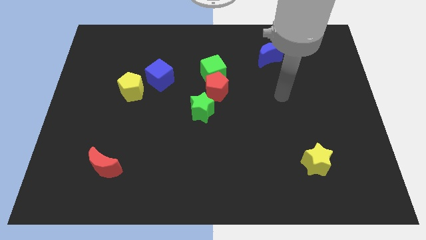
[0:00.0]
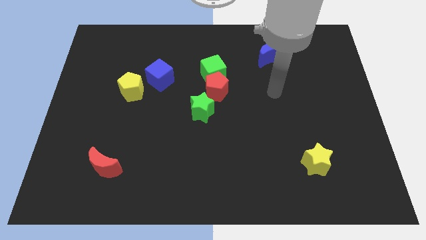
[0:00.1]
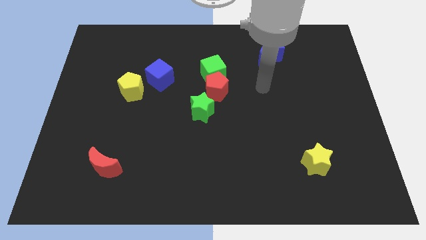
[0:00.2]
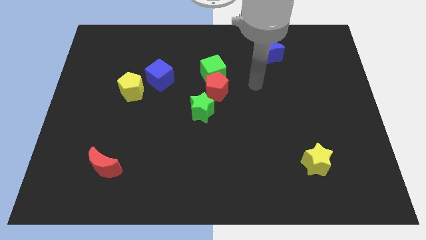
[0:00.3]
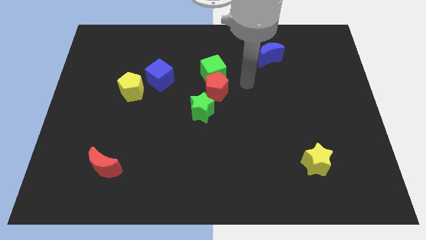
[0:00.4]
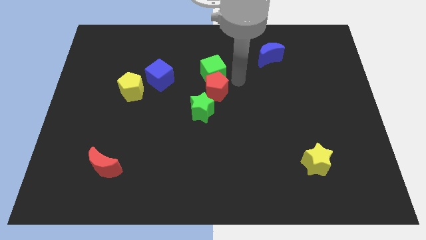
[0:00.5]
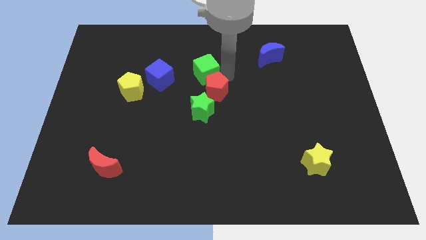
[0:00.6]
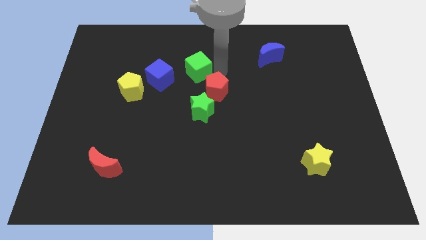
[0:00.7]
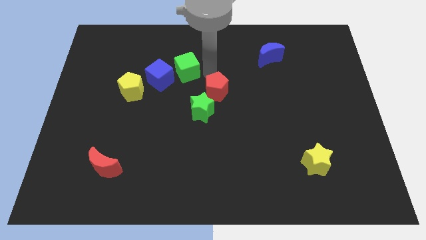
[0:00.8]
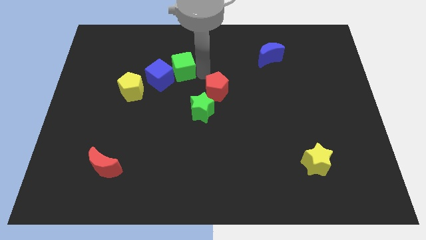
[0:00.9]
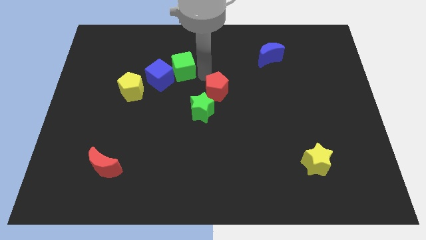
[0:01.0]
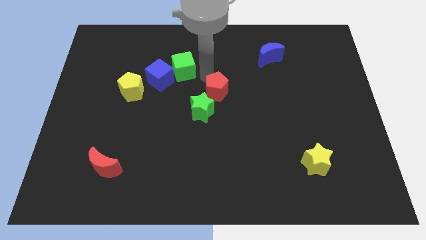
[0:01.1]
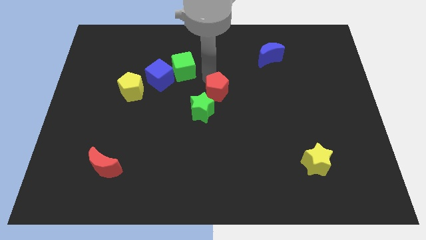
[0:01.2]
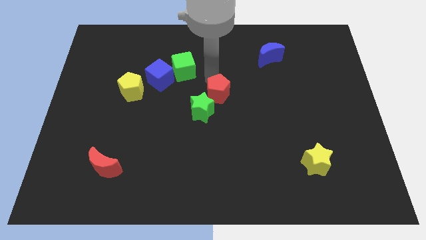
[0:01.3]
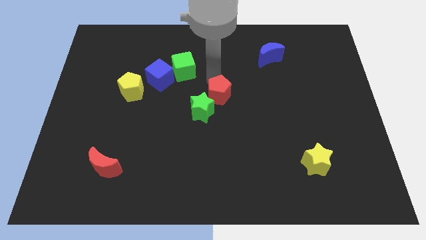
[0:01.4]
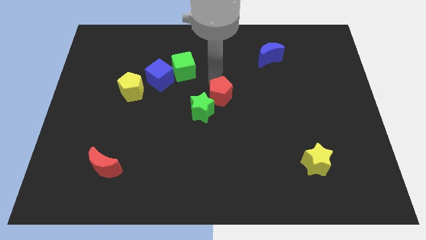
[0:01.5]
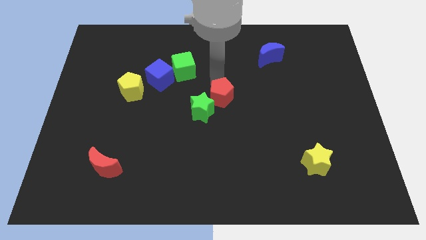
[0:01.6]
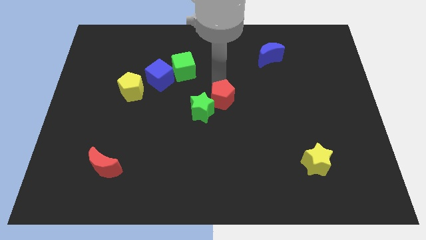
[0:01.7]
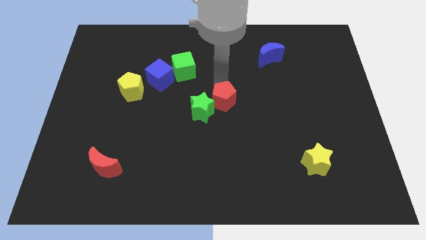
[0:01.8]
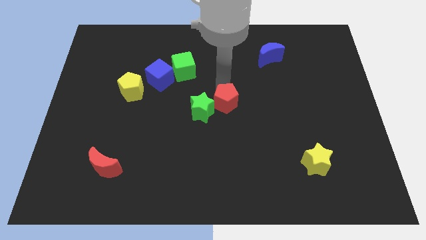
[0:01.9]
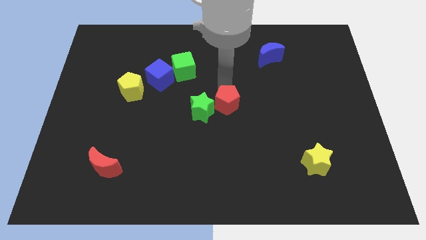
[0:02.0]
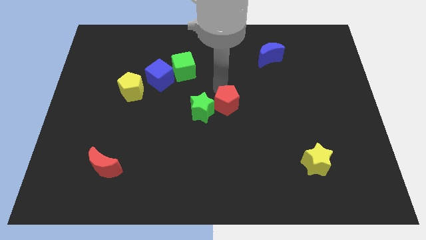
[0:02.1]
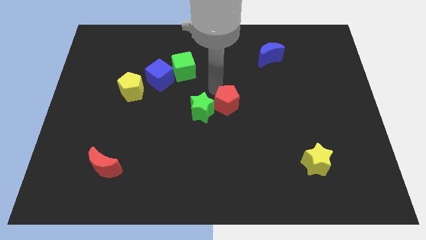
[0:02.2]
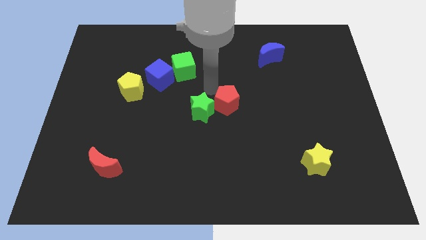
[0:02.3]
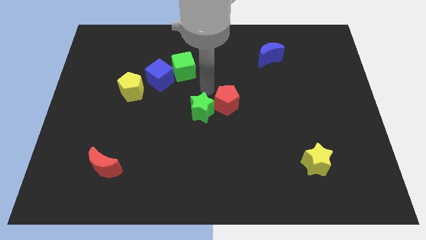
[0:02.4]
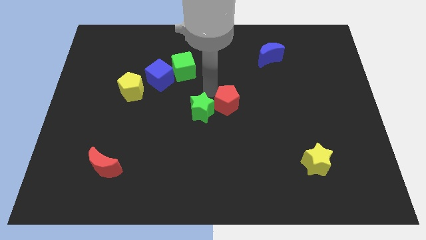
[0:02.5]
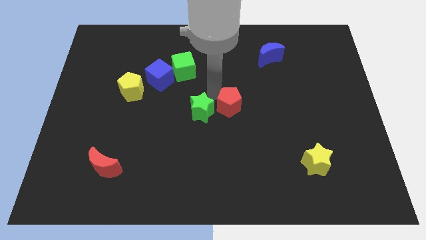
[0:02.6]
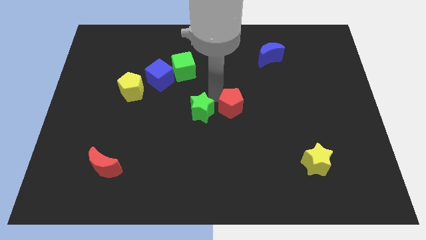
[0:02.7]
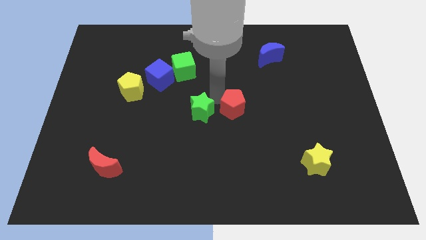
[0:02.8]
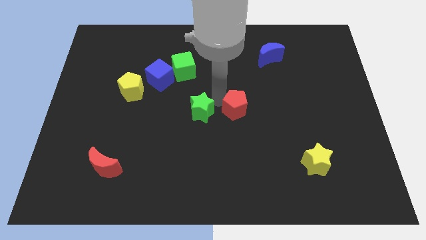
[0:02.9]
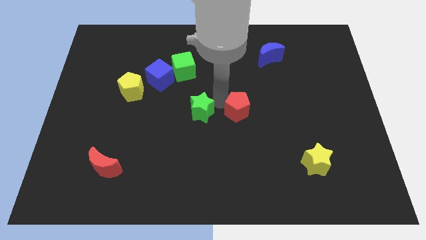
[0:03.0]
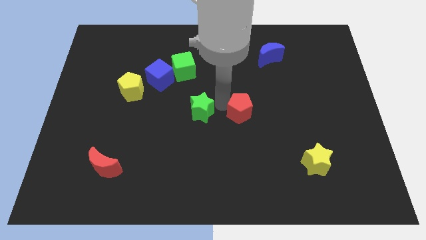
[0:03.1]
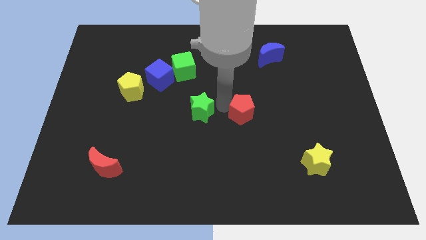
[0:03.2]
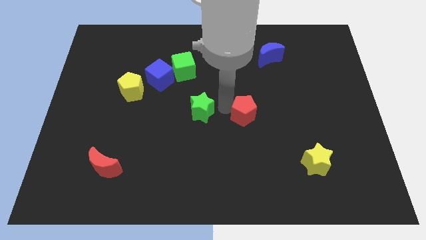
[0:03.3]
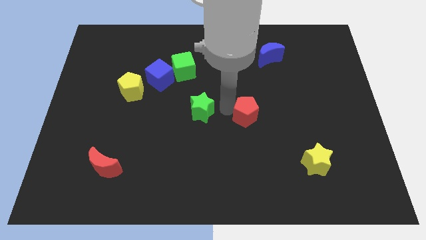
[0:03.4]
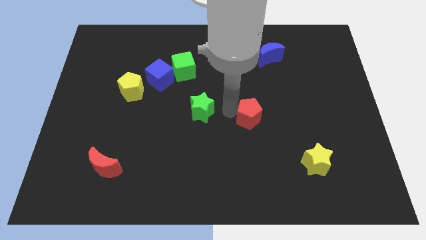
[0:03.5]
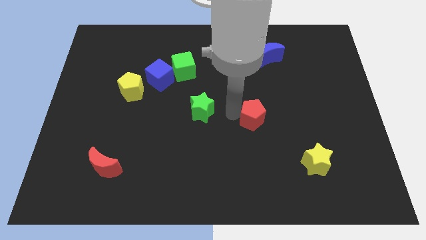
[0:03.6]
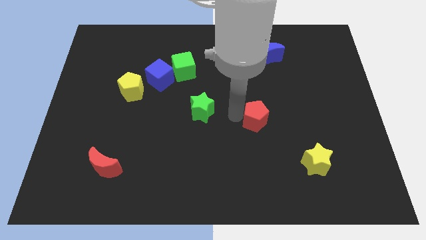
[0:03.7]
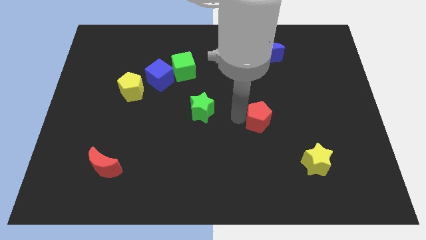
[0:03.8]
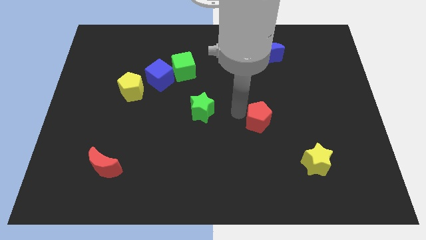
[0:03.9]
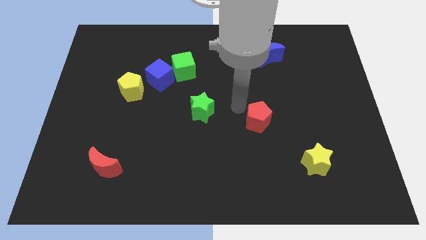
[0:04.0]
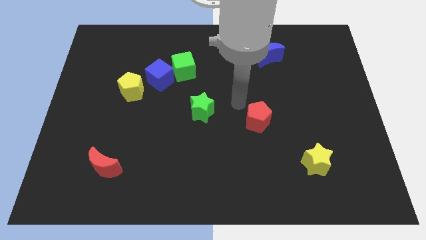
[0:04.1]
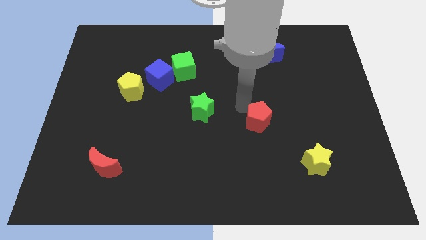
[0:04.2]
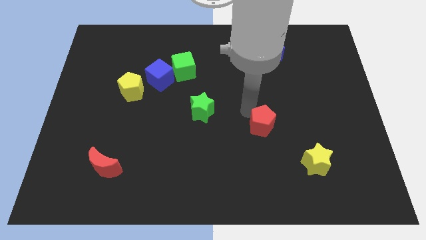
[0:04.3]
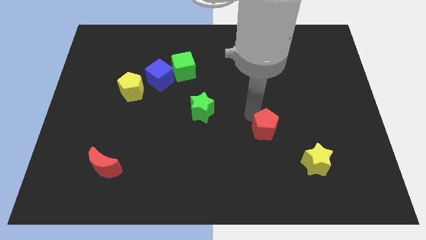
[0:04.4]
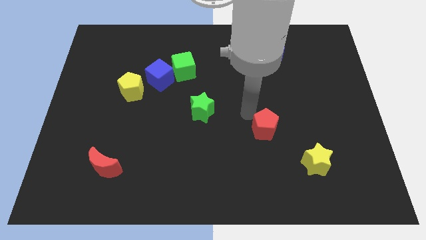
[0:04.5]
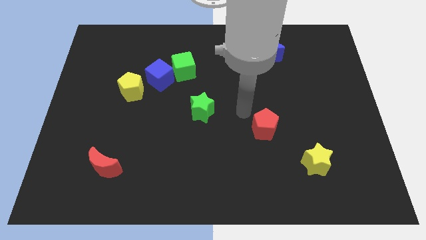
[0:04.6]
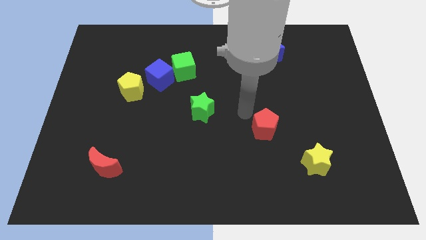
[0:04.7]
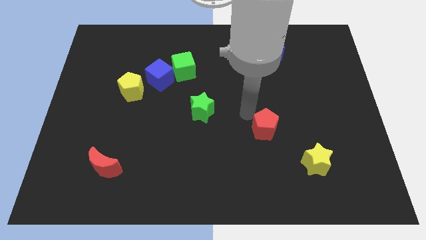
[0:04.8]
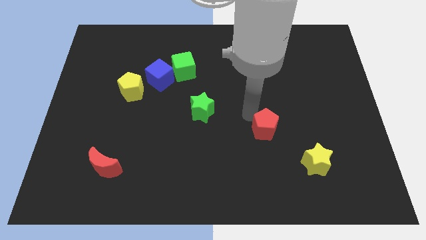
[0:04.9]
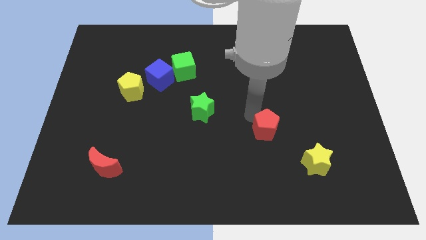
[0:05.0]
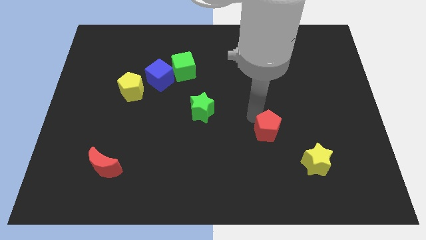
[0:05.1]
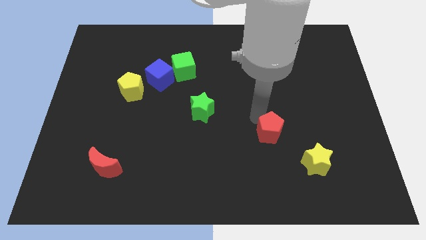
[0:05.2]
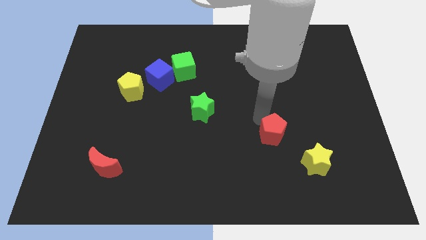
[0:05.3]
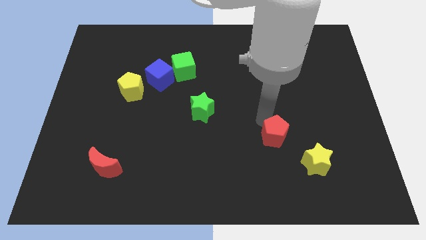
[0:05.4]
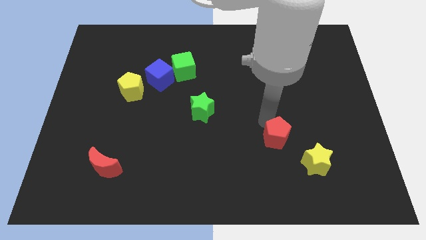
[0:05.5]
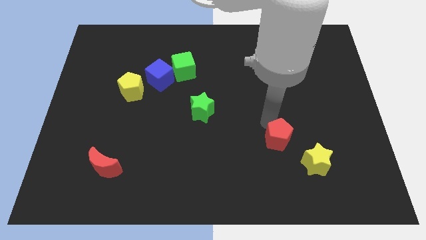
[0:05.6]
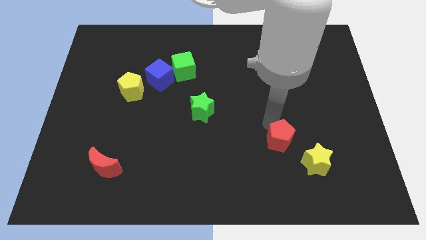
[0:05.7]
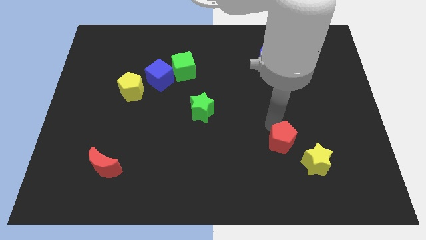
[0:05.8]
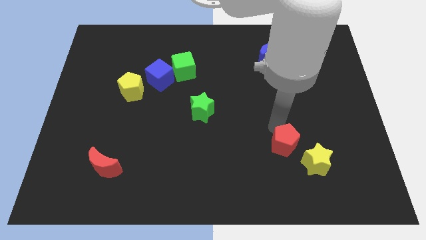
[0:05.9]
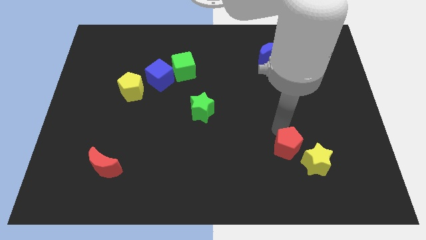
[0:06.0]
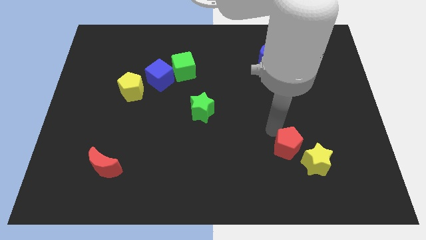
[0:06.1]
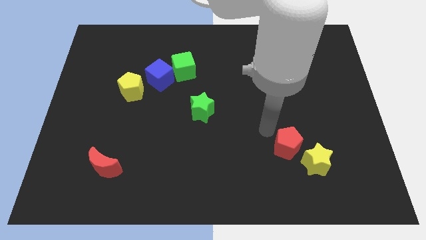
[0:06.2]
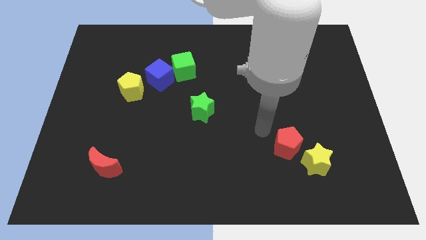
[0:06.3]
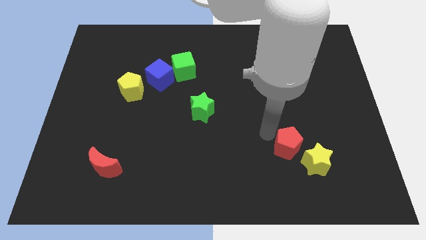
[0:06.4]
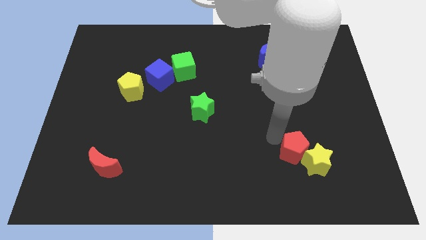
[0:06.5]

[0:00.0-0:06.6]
push the red pentagon towards the yellow star

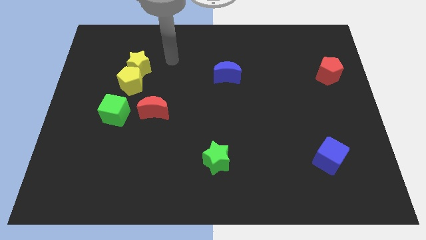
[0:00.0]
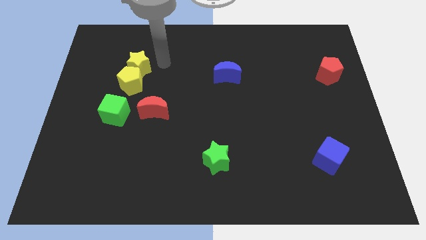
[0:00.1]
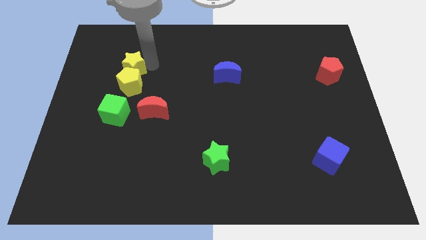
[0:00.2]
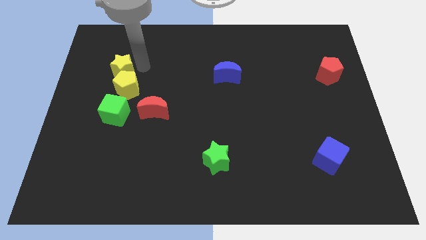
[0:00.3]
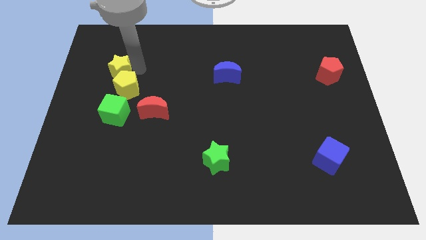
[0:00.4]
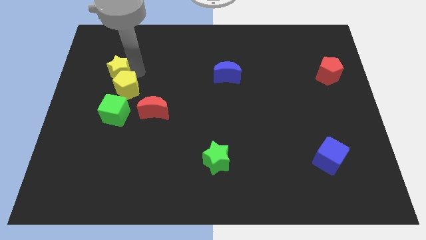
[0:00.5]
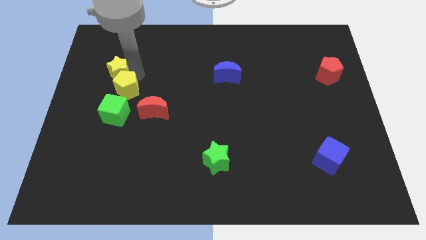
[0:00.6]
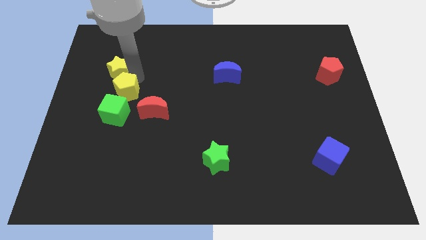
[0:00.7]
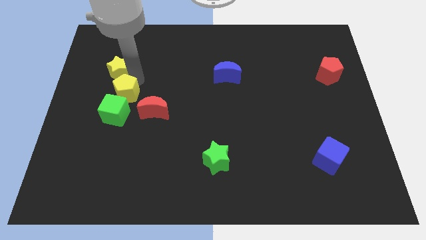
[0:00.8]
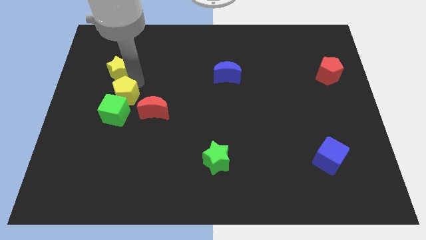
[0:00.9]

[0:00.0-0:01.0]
push the yellow pentagon to the green cube
